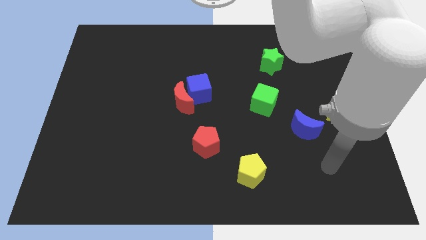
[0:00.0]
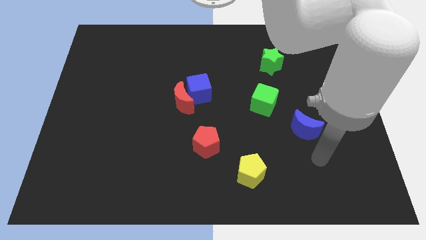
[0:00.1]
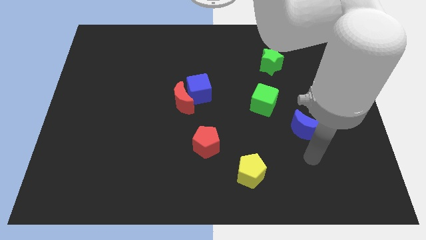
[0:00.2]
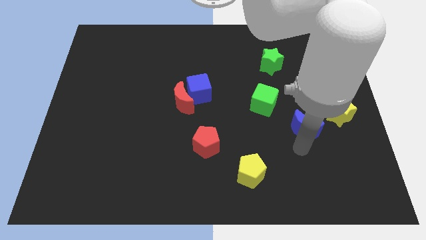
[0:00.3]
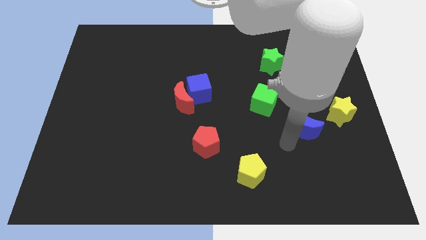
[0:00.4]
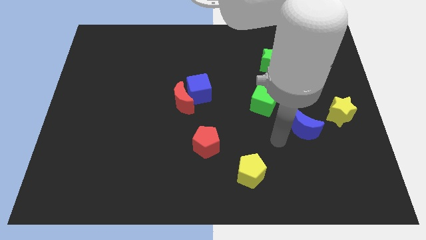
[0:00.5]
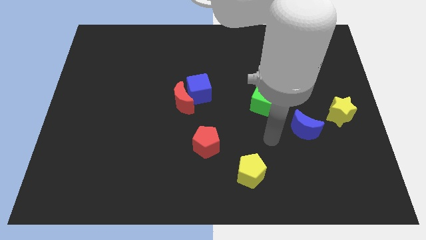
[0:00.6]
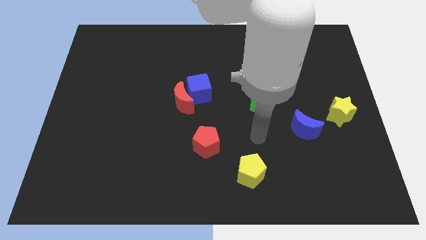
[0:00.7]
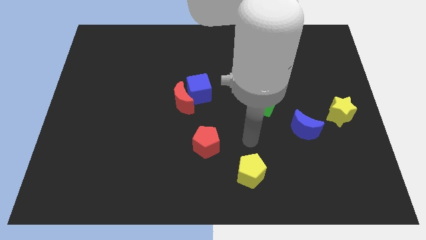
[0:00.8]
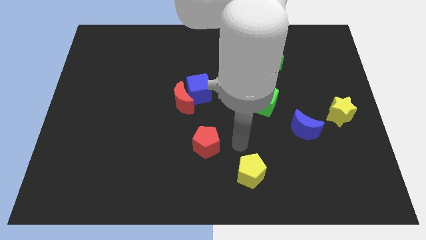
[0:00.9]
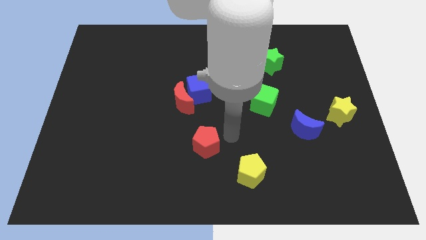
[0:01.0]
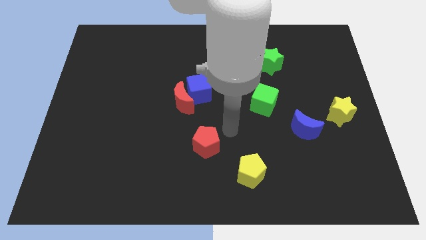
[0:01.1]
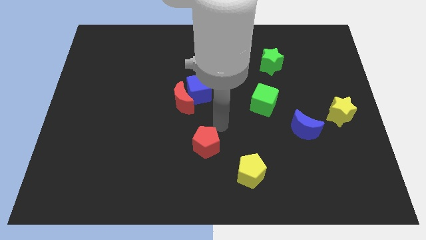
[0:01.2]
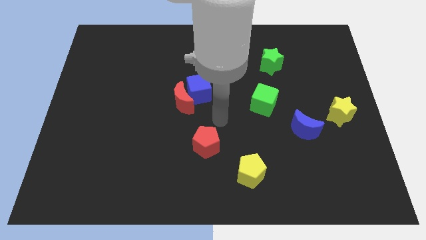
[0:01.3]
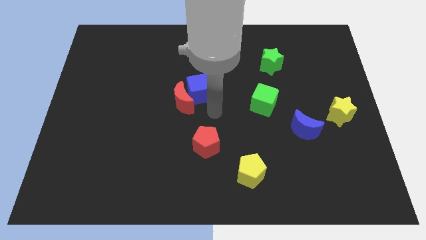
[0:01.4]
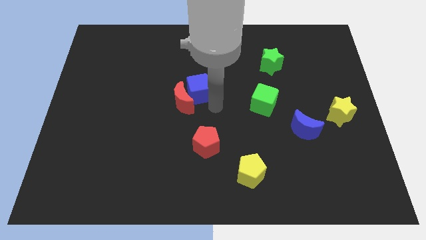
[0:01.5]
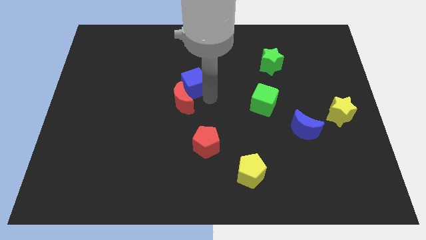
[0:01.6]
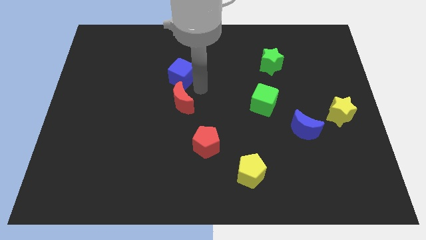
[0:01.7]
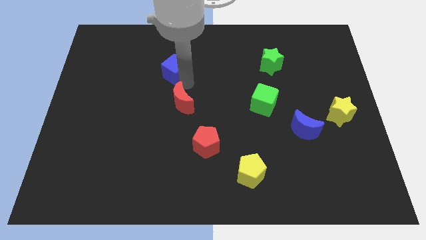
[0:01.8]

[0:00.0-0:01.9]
separate the red moon from the blue cube

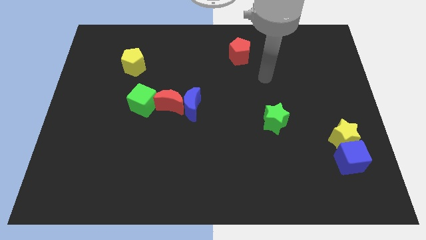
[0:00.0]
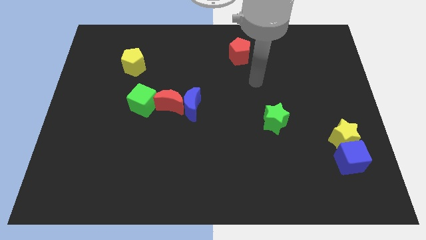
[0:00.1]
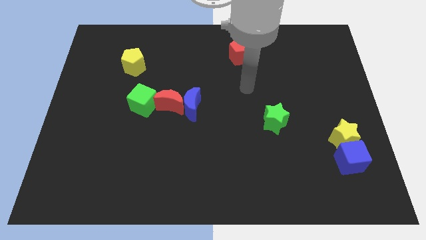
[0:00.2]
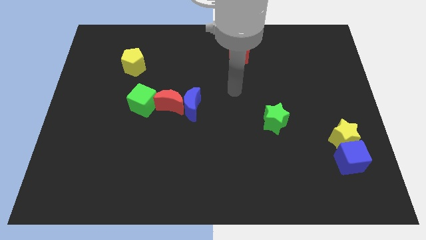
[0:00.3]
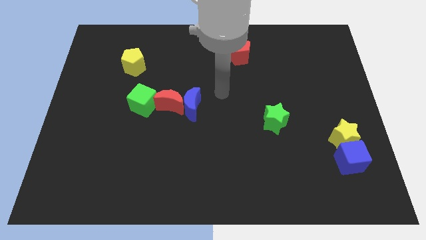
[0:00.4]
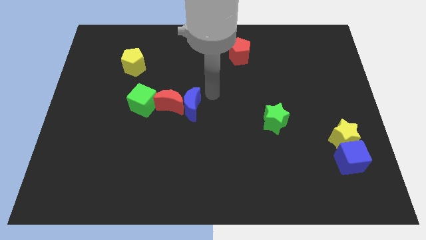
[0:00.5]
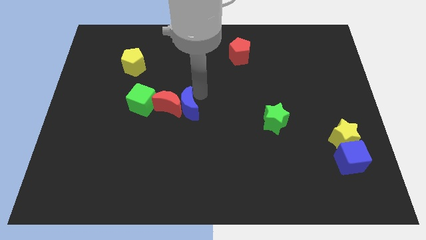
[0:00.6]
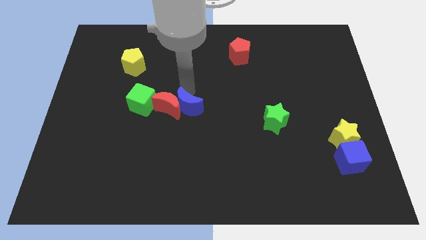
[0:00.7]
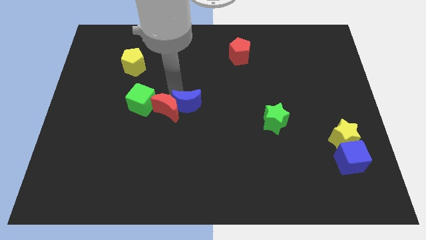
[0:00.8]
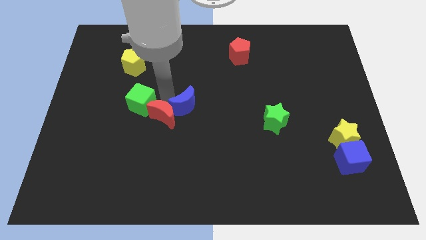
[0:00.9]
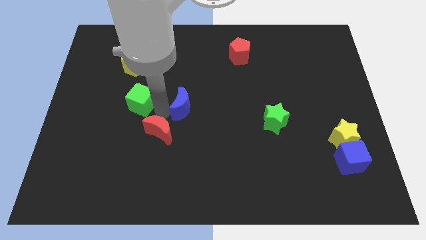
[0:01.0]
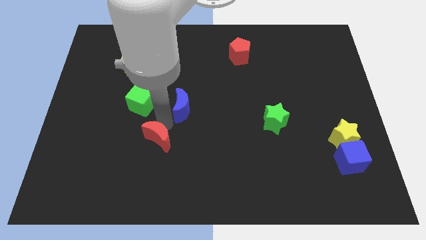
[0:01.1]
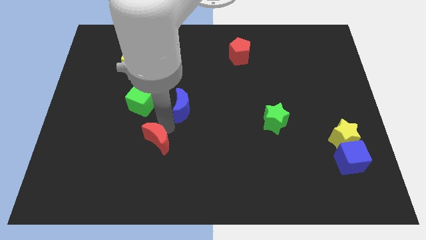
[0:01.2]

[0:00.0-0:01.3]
move the blue moon away from the red moon

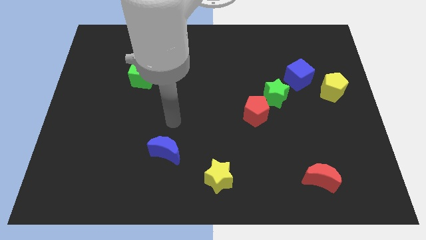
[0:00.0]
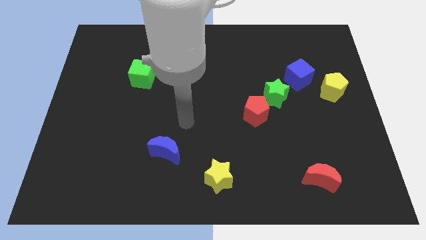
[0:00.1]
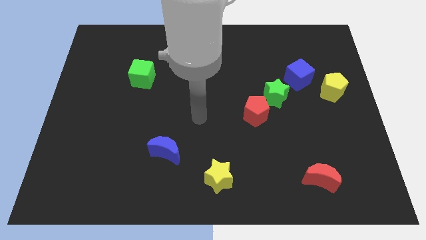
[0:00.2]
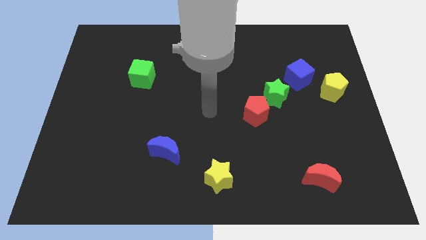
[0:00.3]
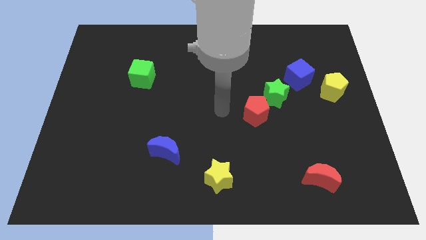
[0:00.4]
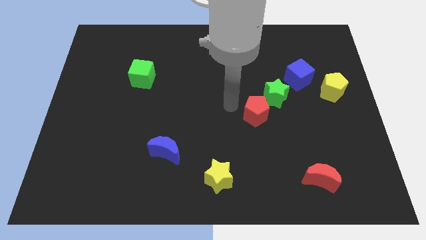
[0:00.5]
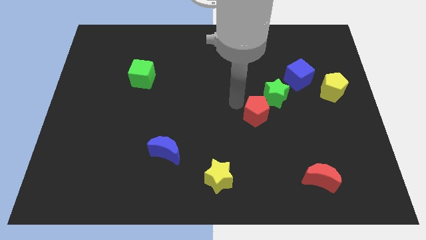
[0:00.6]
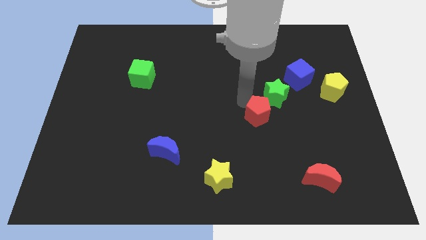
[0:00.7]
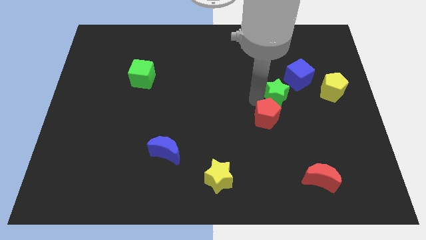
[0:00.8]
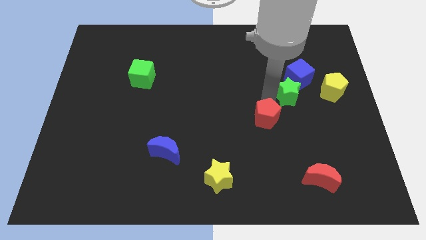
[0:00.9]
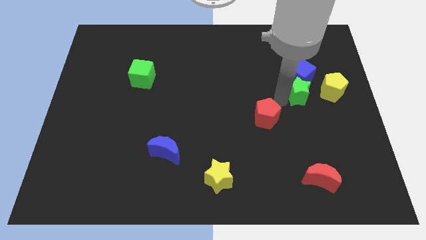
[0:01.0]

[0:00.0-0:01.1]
separate the red pentagon from the green star

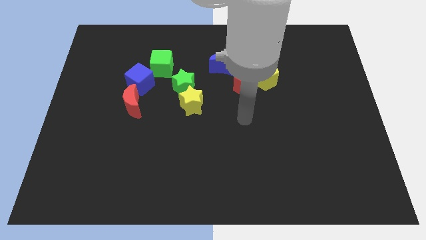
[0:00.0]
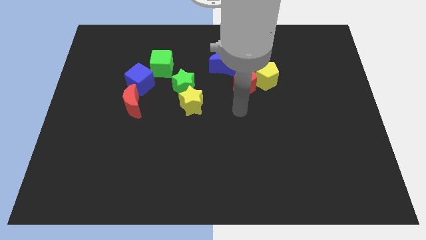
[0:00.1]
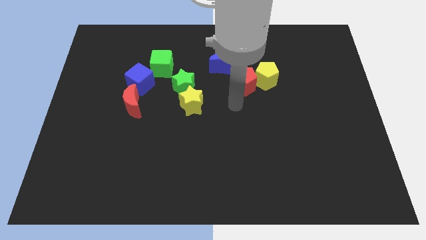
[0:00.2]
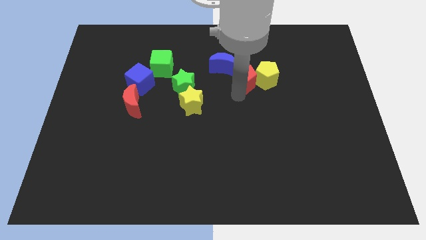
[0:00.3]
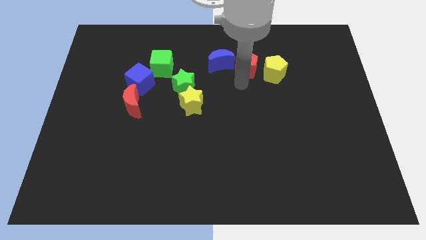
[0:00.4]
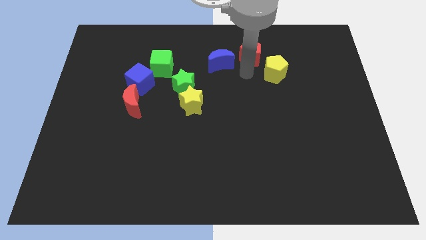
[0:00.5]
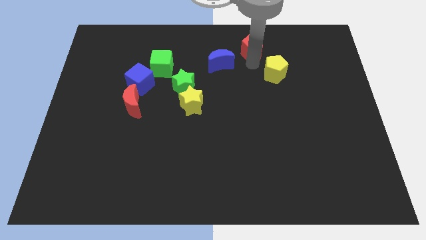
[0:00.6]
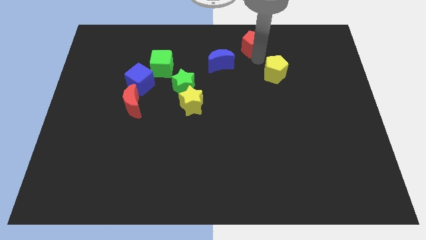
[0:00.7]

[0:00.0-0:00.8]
separate the yellow pentagon from the red pentagon

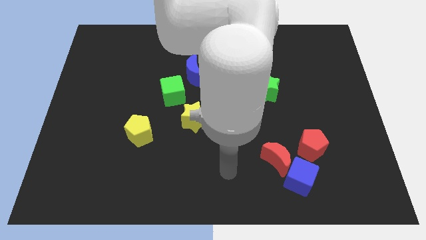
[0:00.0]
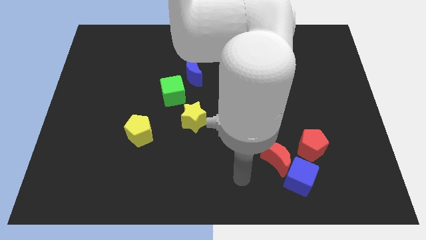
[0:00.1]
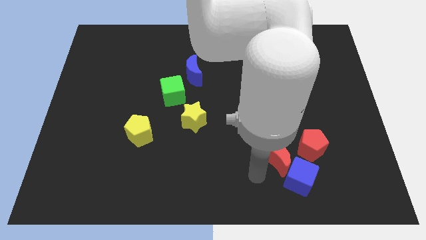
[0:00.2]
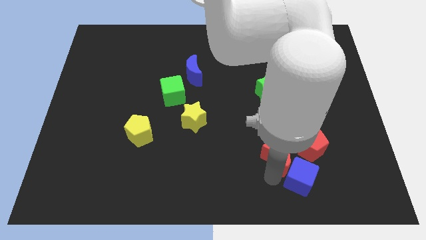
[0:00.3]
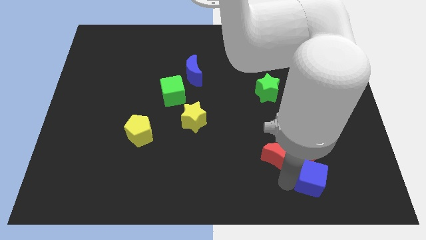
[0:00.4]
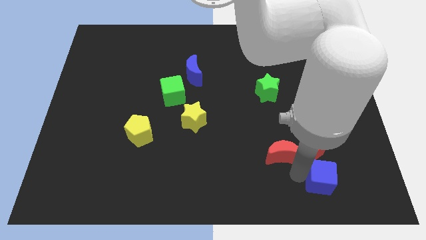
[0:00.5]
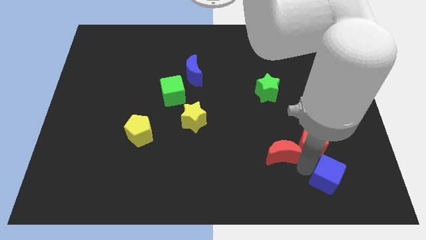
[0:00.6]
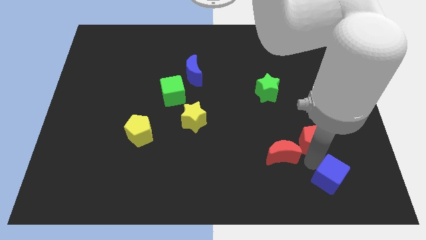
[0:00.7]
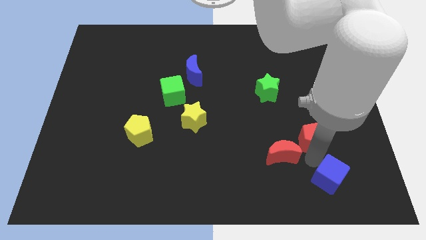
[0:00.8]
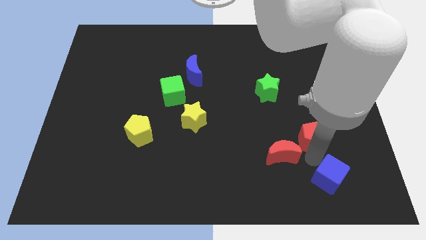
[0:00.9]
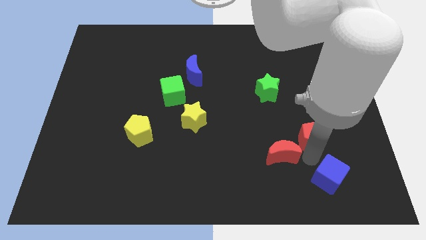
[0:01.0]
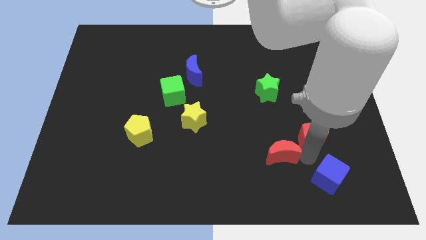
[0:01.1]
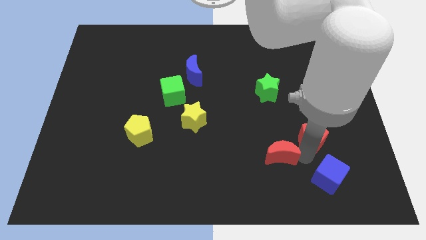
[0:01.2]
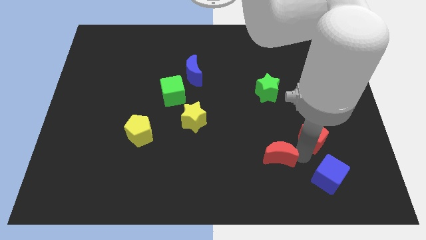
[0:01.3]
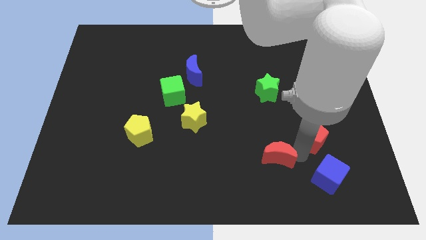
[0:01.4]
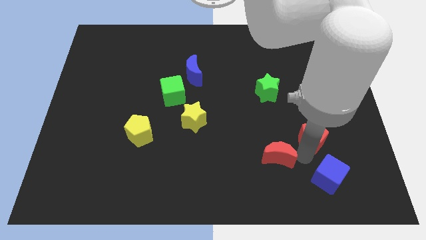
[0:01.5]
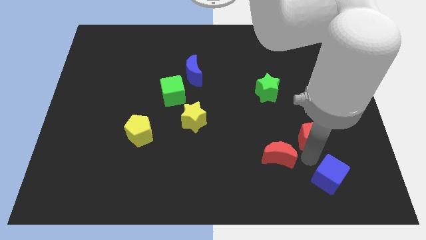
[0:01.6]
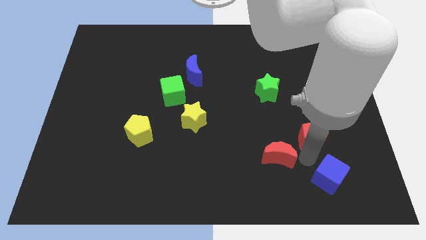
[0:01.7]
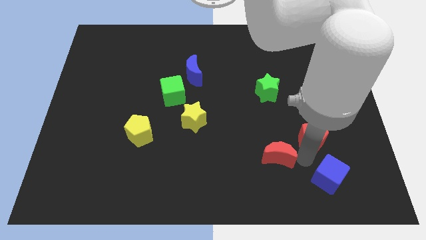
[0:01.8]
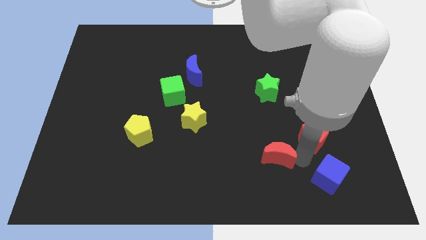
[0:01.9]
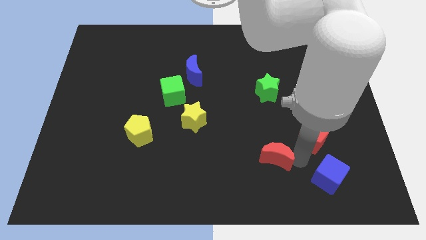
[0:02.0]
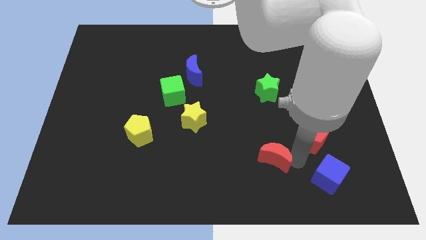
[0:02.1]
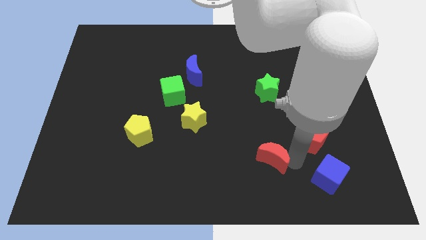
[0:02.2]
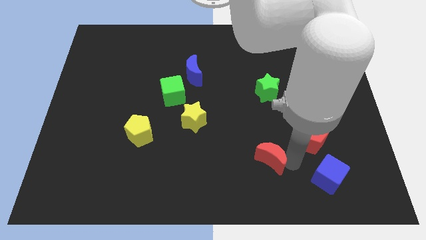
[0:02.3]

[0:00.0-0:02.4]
pull the red moon apart from the blue cube and red pentagon

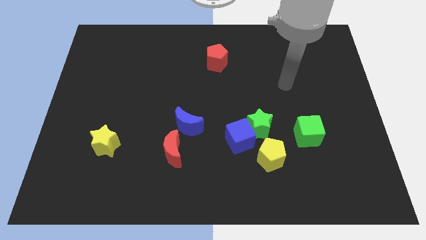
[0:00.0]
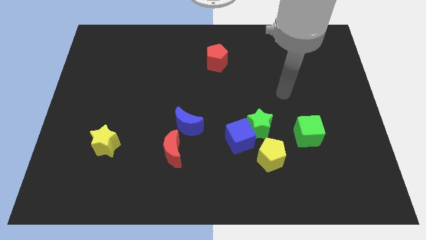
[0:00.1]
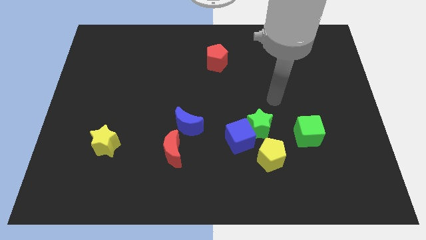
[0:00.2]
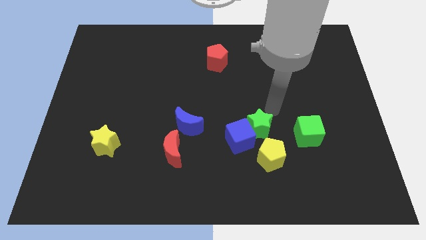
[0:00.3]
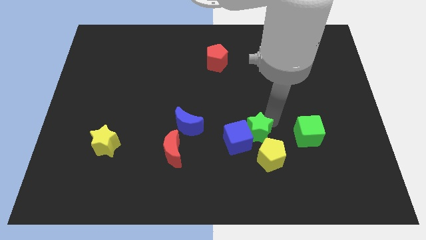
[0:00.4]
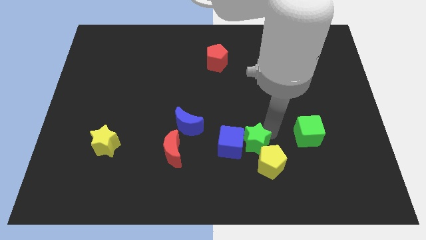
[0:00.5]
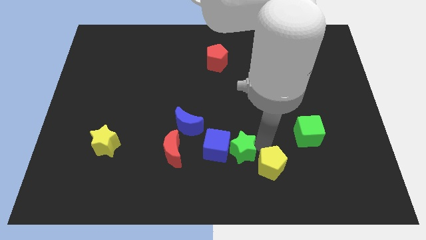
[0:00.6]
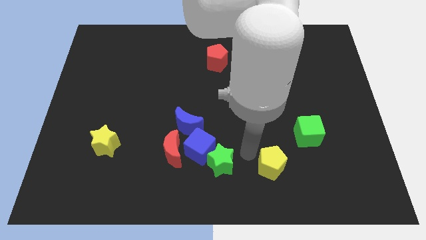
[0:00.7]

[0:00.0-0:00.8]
separate the blue cube from the green star and yellow pentagon

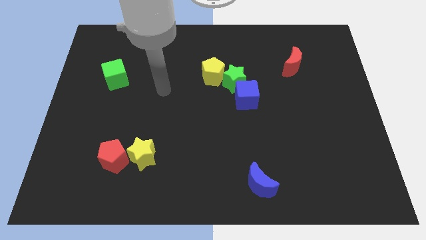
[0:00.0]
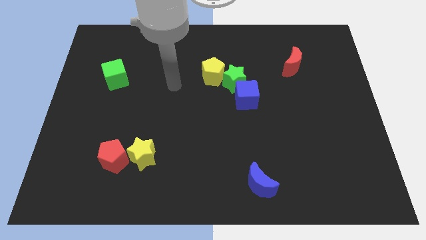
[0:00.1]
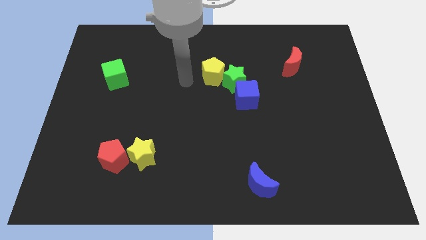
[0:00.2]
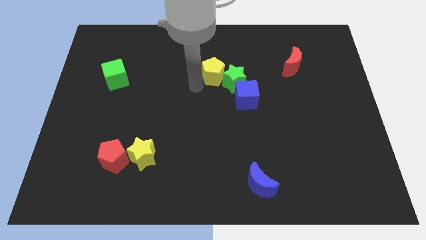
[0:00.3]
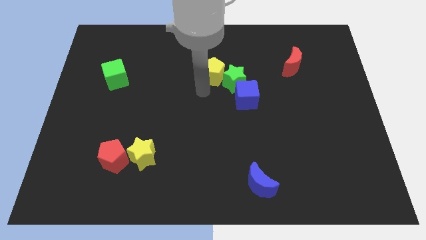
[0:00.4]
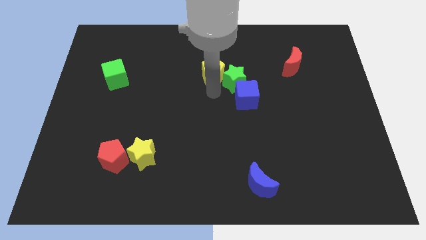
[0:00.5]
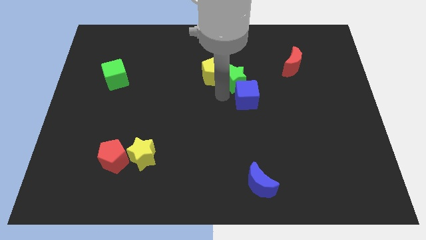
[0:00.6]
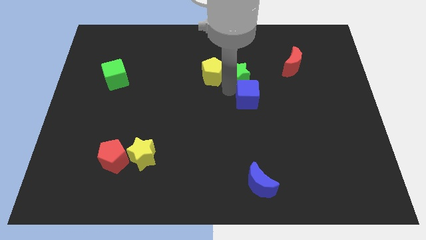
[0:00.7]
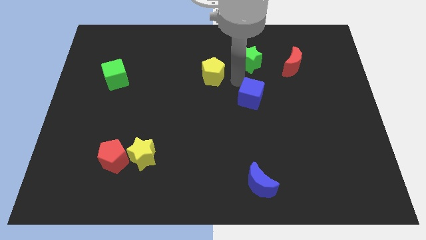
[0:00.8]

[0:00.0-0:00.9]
pull the yellow pentagon apart from the green star

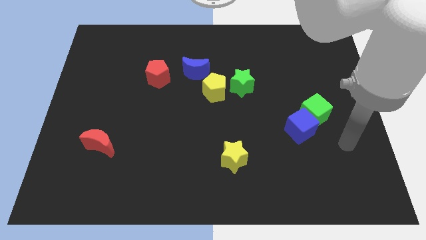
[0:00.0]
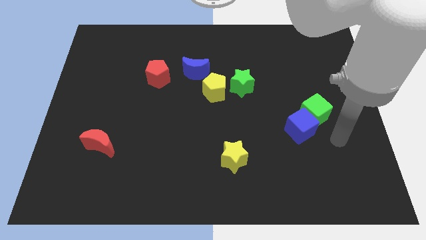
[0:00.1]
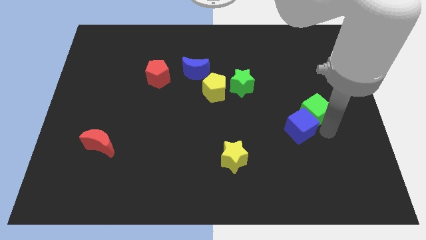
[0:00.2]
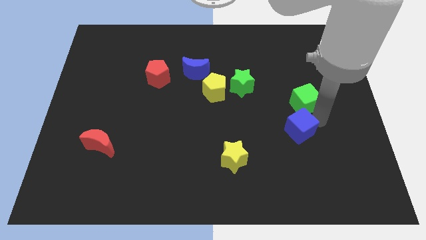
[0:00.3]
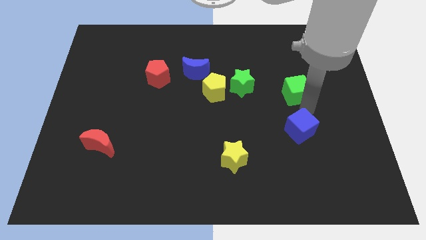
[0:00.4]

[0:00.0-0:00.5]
move the blue cube away from the green cube
